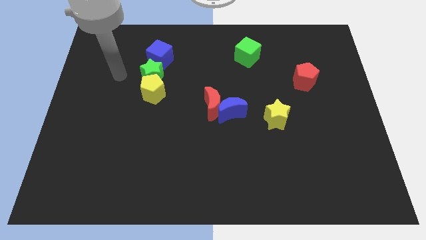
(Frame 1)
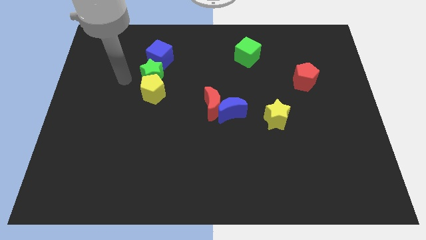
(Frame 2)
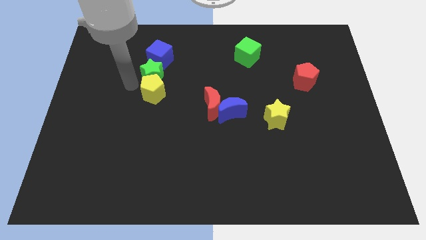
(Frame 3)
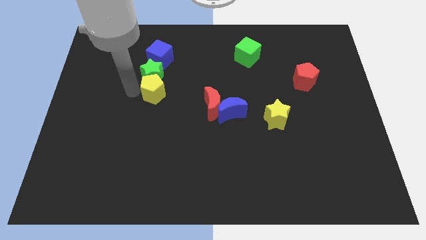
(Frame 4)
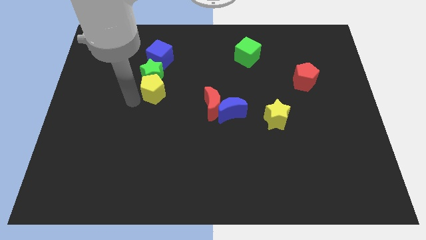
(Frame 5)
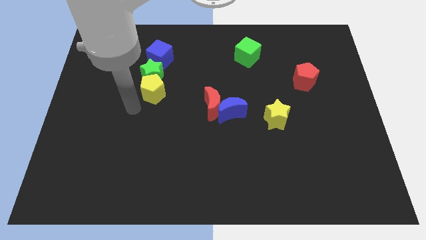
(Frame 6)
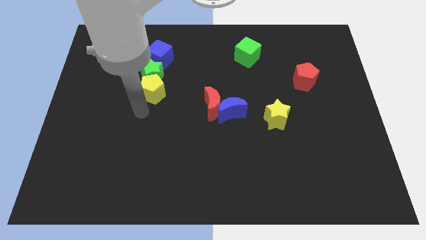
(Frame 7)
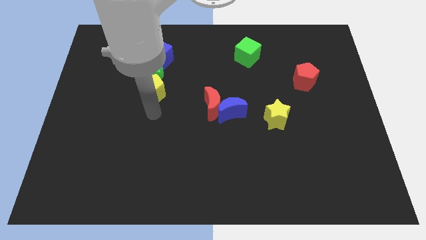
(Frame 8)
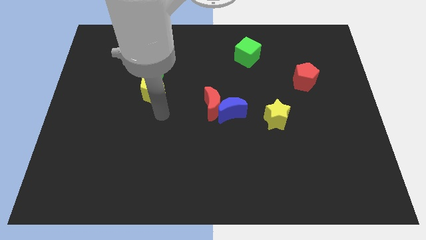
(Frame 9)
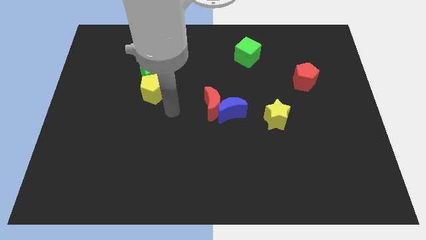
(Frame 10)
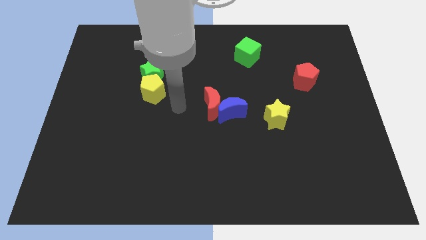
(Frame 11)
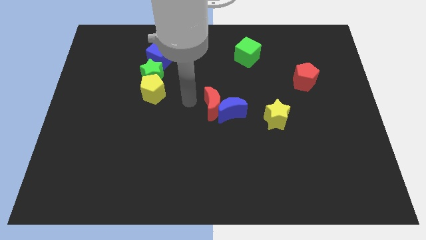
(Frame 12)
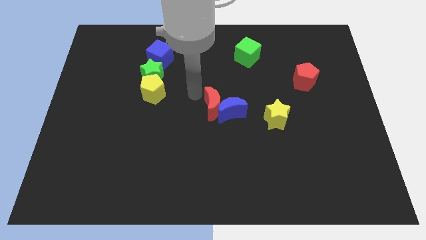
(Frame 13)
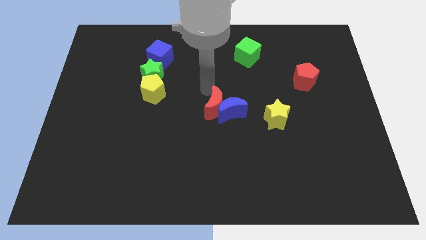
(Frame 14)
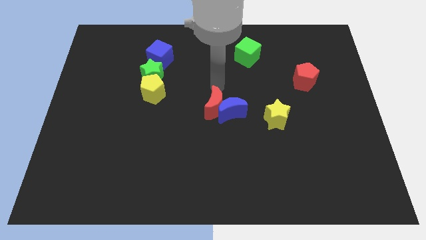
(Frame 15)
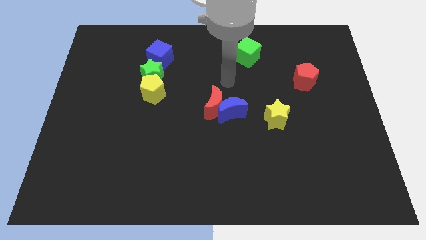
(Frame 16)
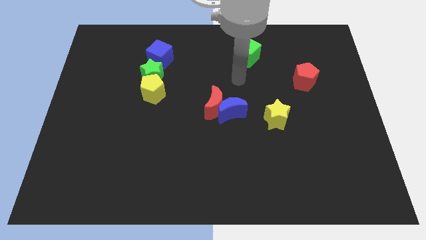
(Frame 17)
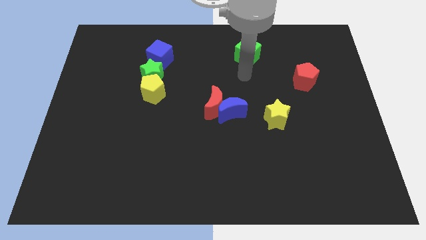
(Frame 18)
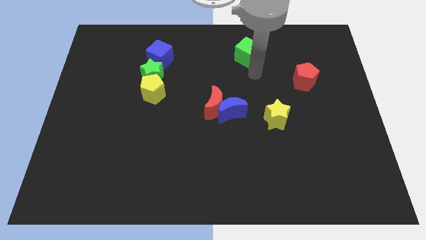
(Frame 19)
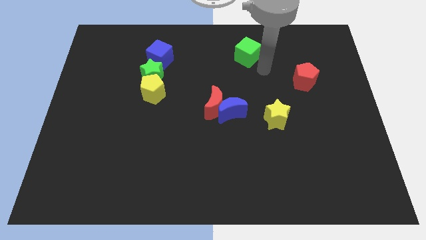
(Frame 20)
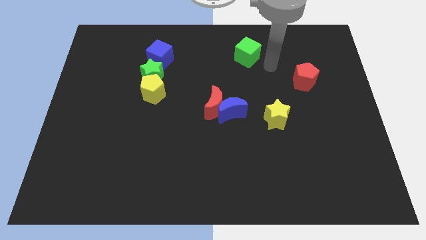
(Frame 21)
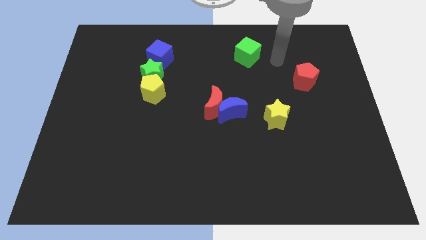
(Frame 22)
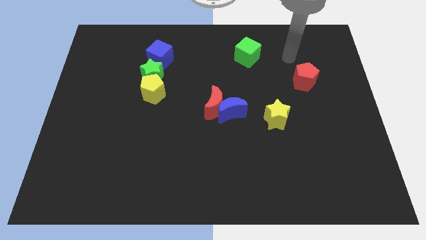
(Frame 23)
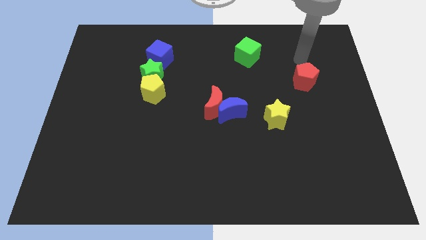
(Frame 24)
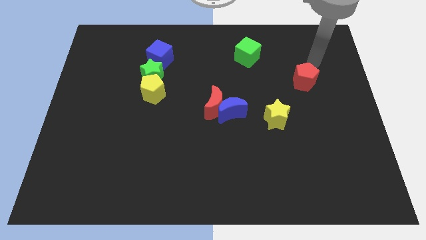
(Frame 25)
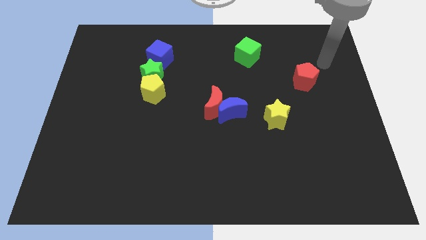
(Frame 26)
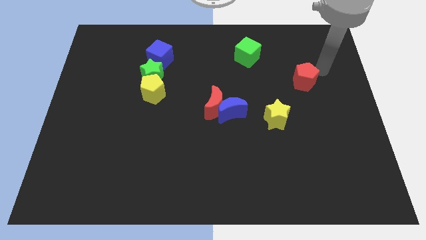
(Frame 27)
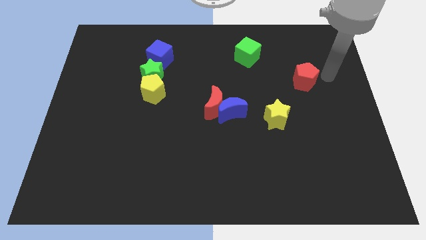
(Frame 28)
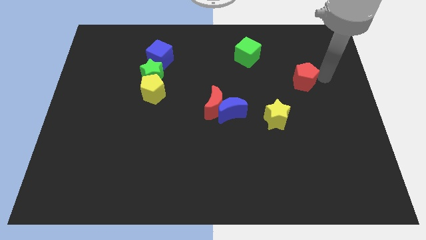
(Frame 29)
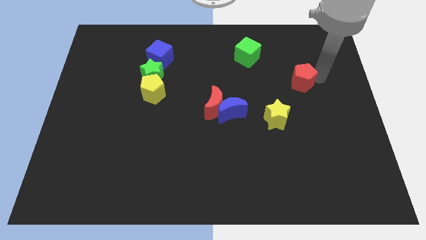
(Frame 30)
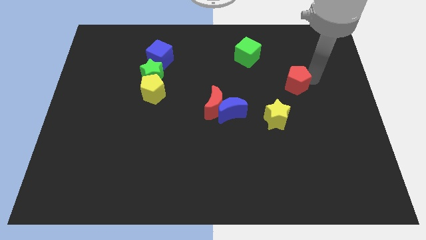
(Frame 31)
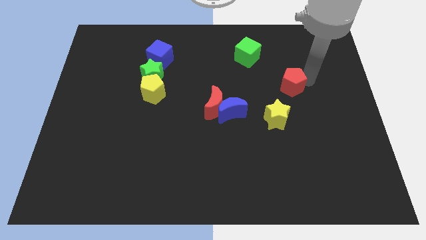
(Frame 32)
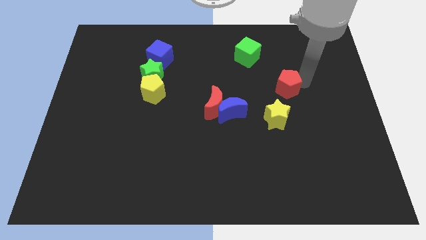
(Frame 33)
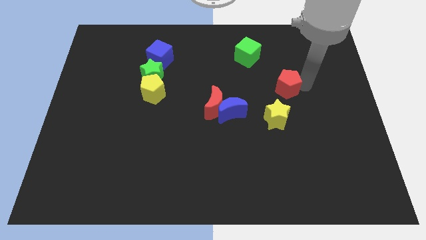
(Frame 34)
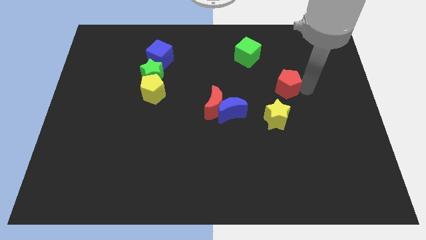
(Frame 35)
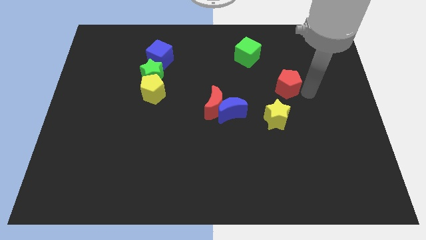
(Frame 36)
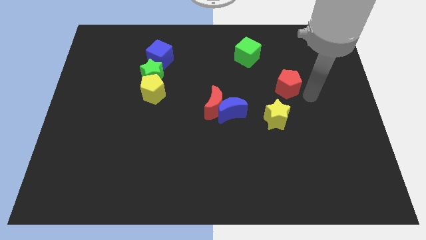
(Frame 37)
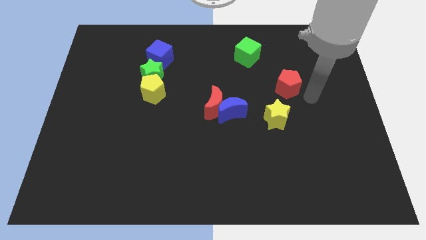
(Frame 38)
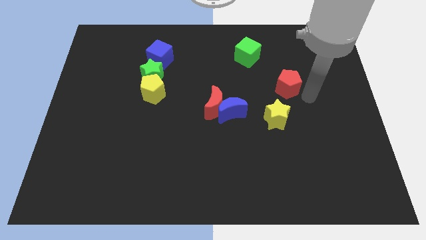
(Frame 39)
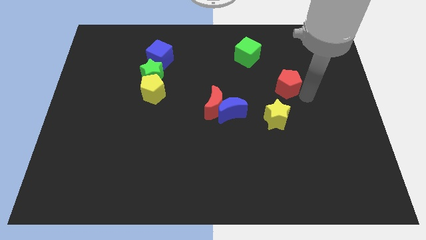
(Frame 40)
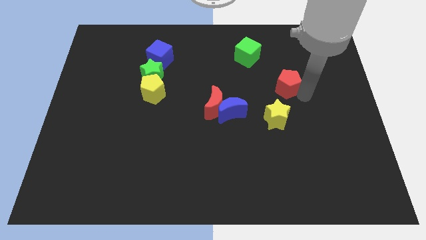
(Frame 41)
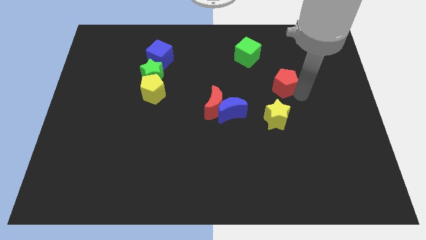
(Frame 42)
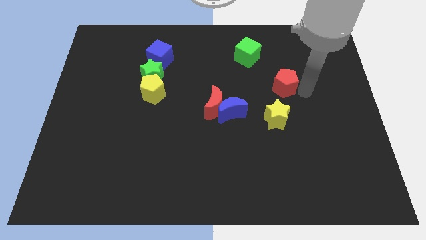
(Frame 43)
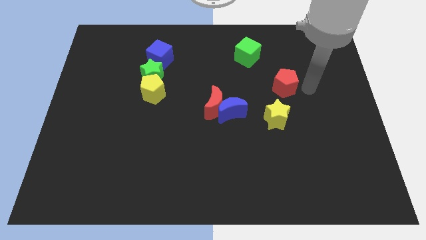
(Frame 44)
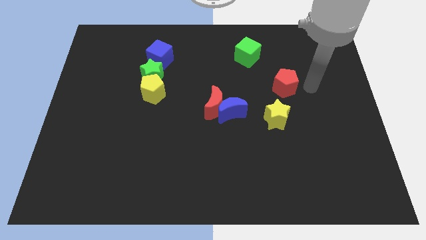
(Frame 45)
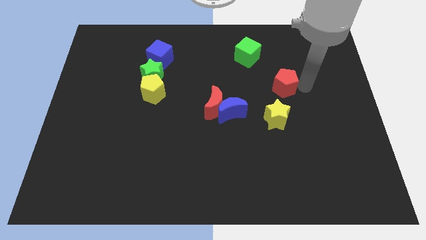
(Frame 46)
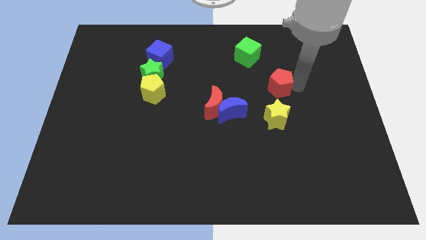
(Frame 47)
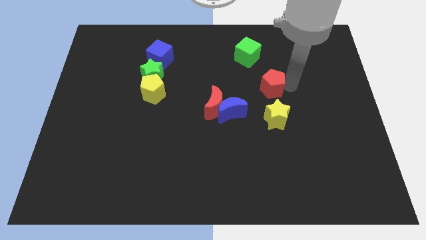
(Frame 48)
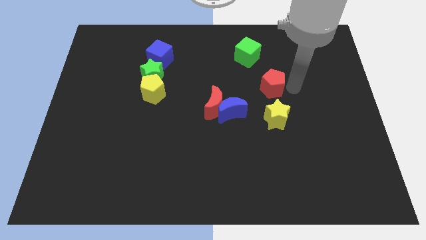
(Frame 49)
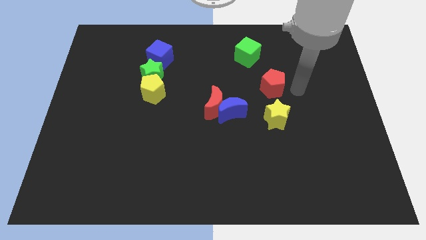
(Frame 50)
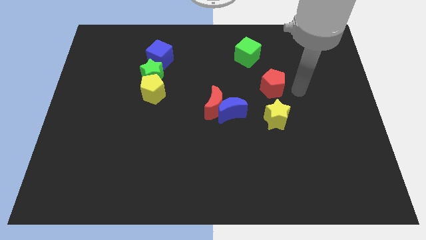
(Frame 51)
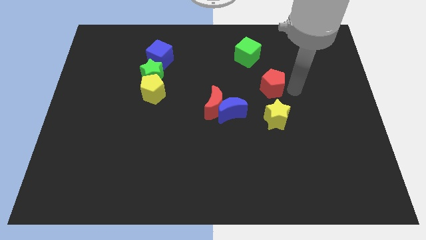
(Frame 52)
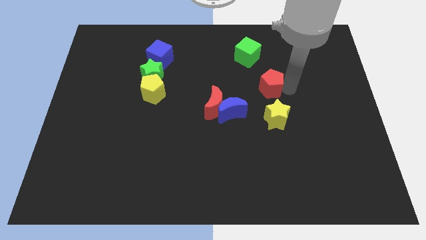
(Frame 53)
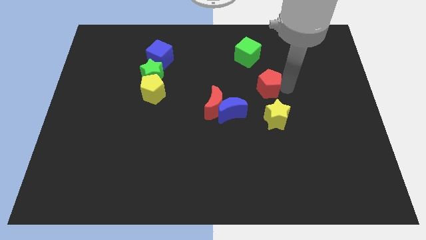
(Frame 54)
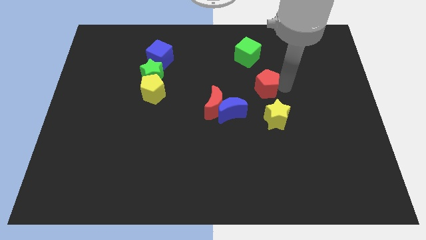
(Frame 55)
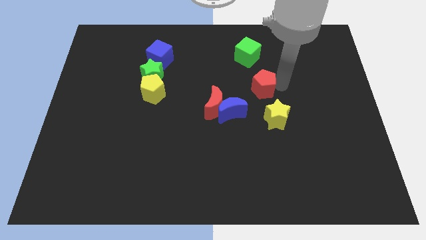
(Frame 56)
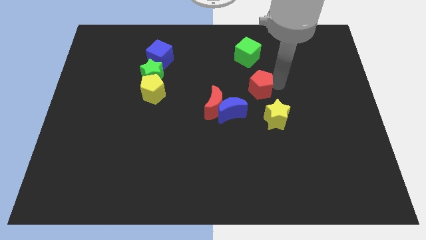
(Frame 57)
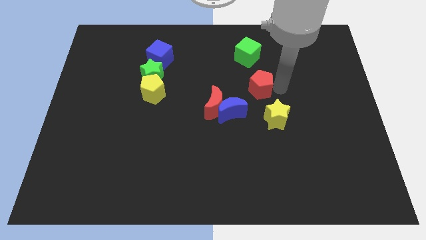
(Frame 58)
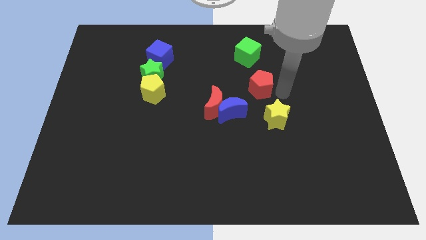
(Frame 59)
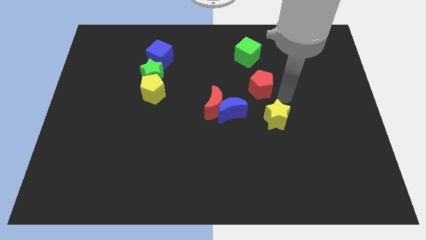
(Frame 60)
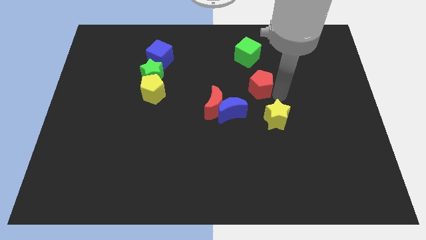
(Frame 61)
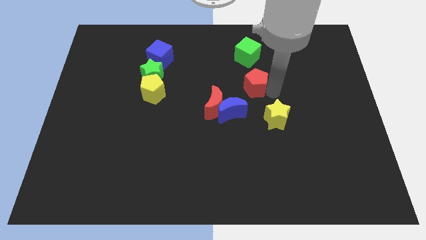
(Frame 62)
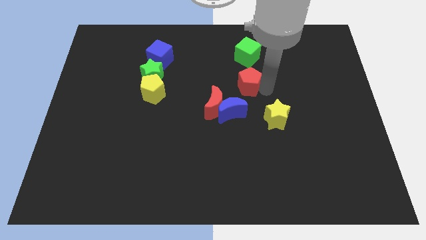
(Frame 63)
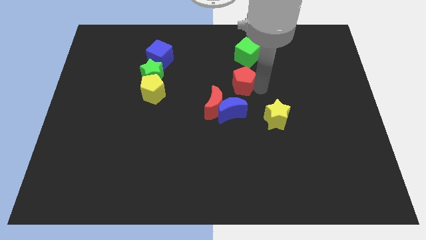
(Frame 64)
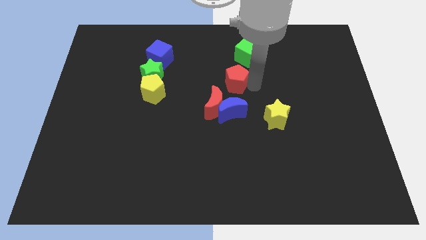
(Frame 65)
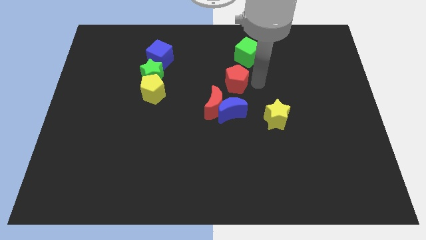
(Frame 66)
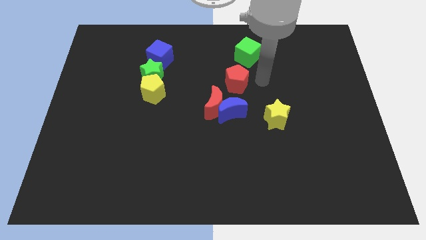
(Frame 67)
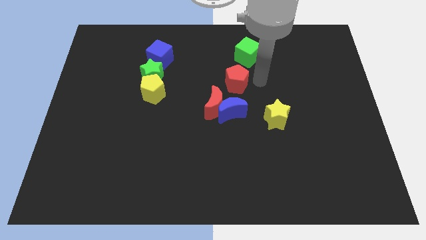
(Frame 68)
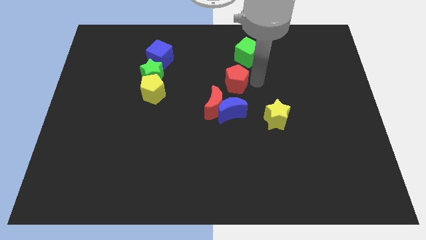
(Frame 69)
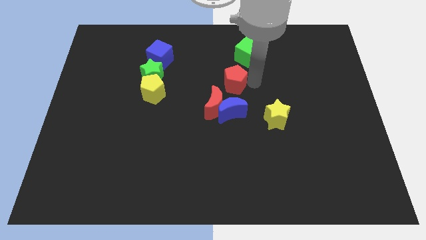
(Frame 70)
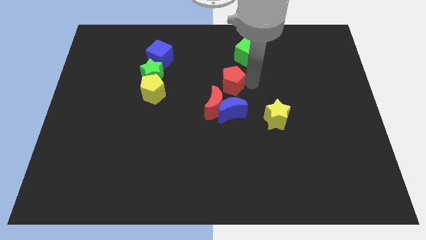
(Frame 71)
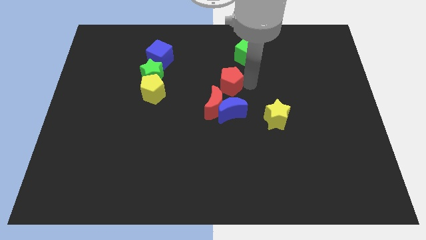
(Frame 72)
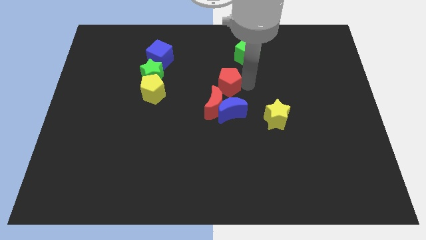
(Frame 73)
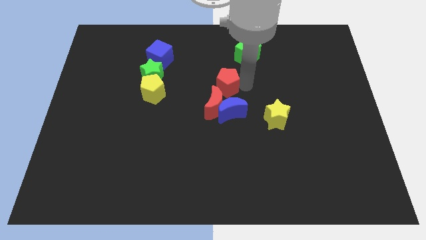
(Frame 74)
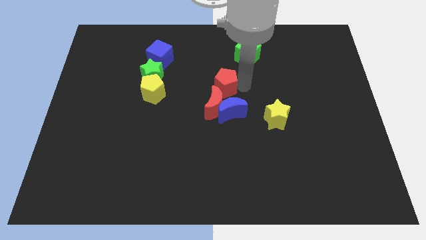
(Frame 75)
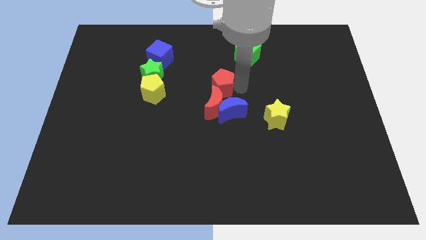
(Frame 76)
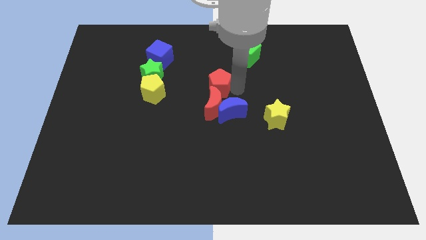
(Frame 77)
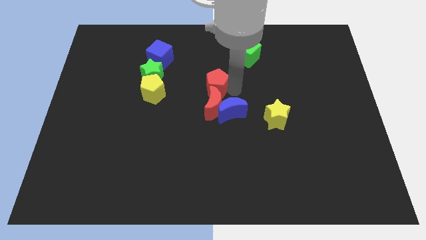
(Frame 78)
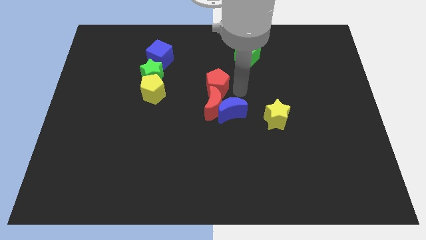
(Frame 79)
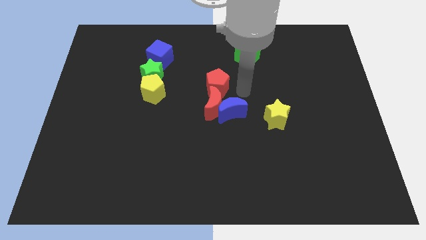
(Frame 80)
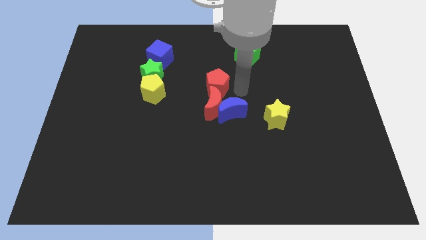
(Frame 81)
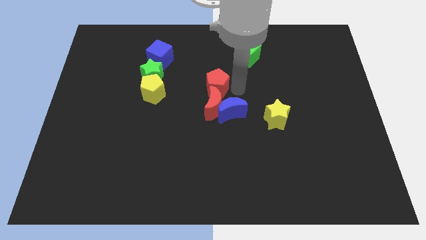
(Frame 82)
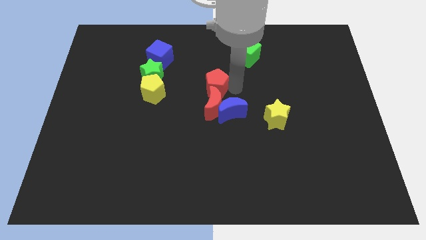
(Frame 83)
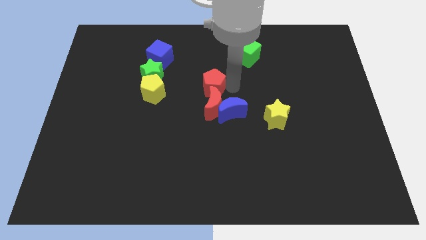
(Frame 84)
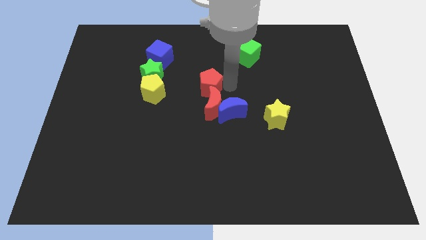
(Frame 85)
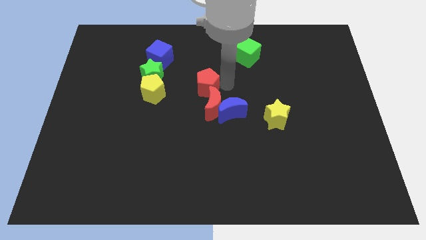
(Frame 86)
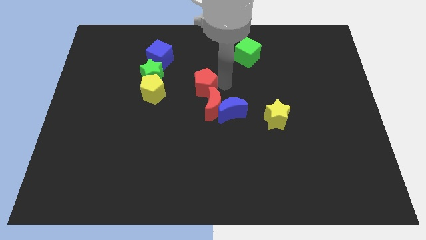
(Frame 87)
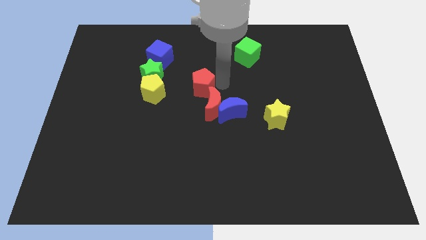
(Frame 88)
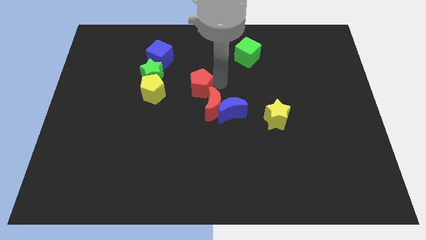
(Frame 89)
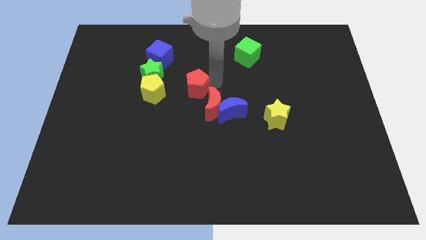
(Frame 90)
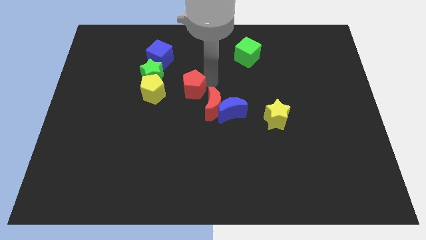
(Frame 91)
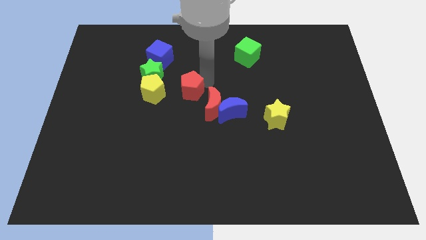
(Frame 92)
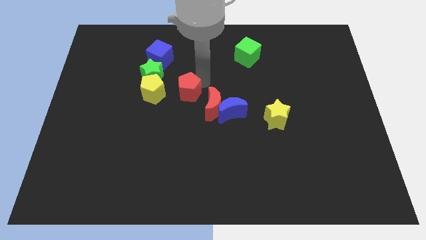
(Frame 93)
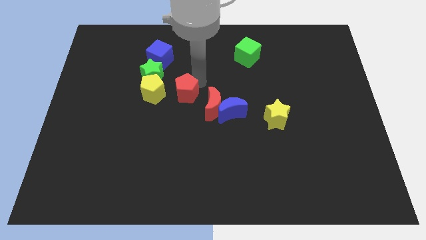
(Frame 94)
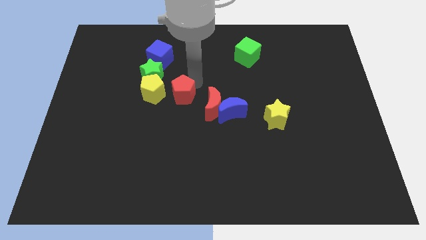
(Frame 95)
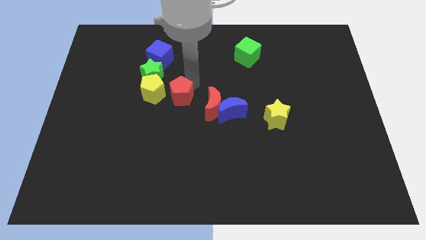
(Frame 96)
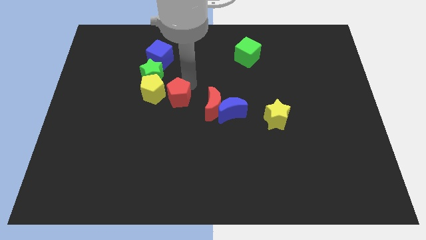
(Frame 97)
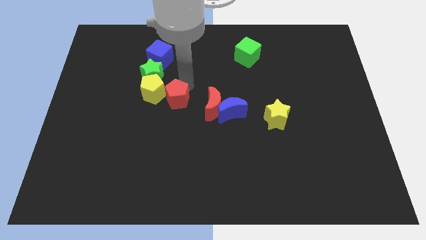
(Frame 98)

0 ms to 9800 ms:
push the red pentagon towards the yellow pentagon
